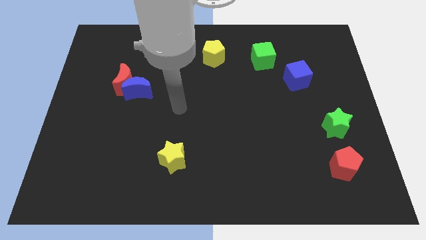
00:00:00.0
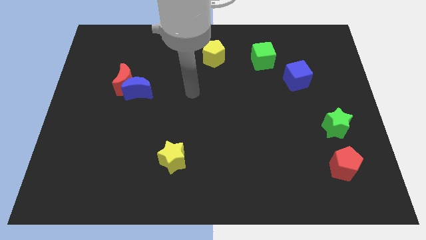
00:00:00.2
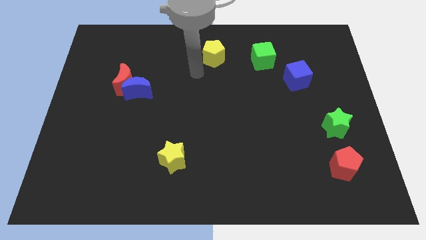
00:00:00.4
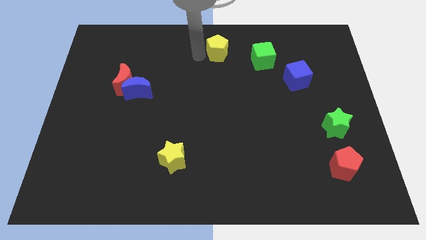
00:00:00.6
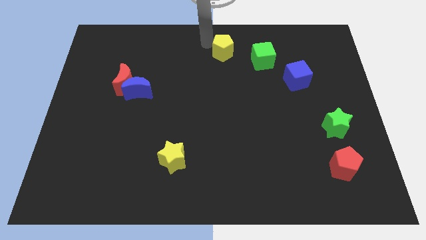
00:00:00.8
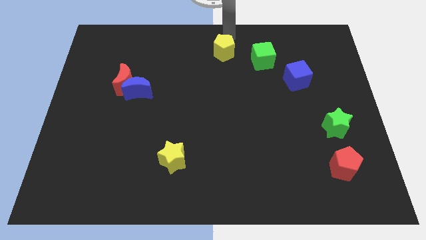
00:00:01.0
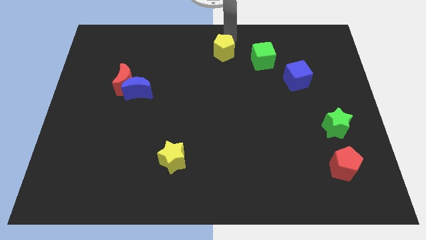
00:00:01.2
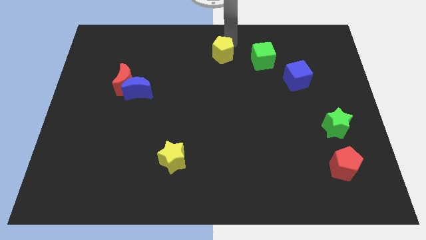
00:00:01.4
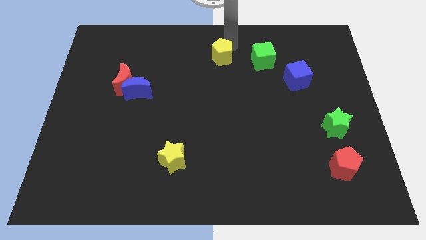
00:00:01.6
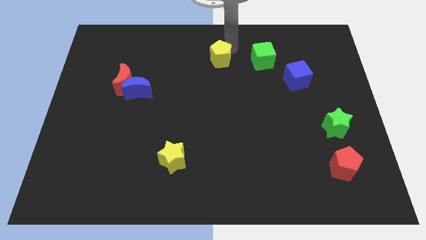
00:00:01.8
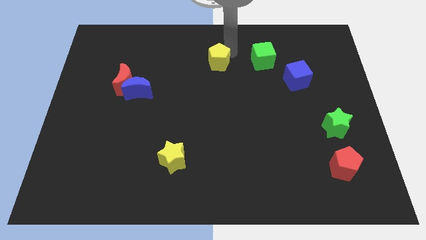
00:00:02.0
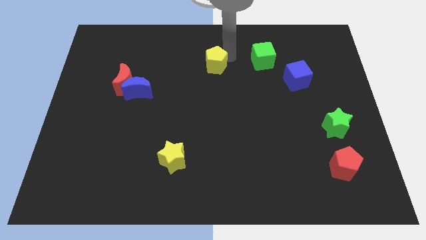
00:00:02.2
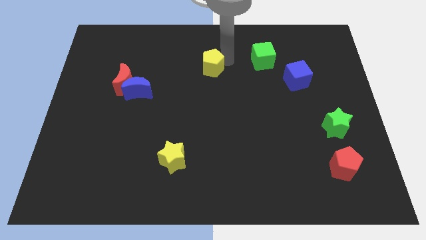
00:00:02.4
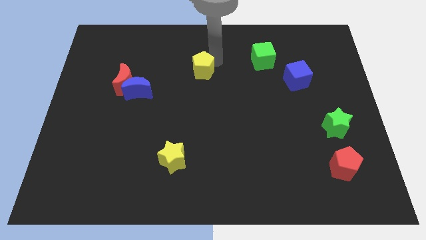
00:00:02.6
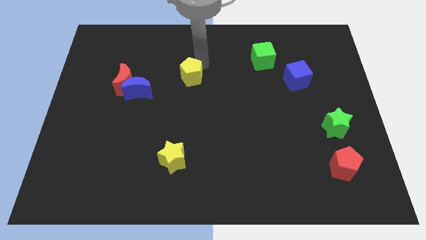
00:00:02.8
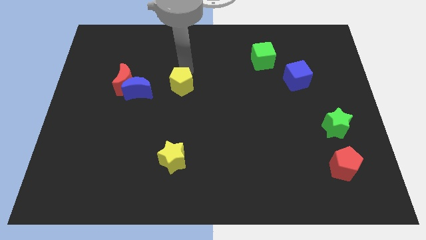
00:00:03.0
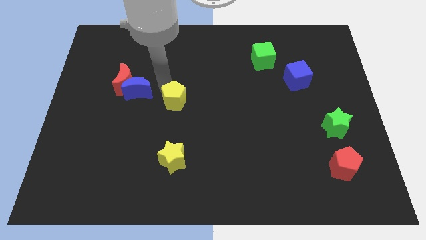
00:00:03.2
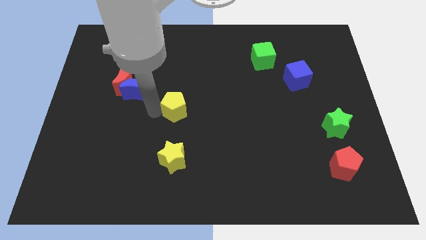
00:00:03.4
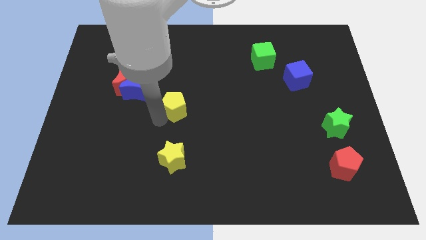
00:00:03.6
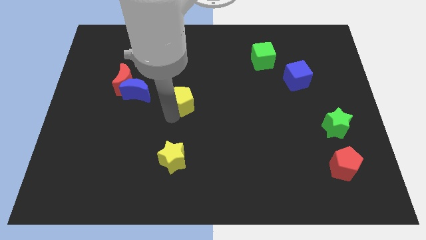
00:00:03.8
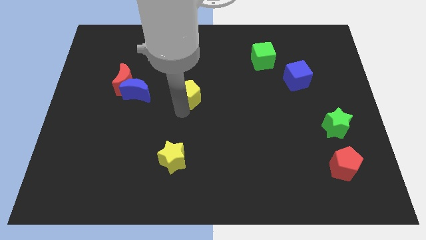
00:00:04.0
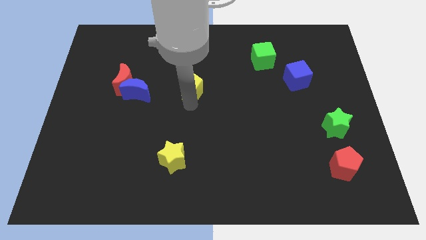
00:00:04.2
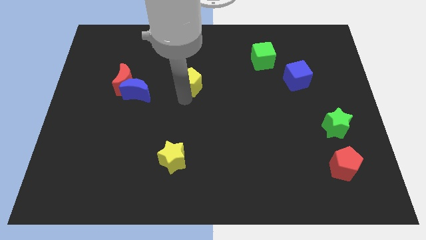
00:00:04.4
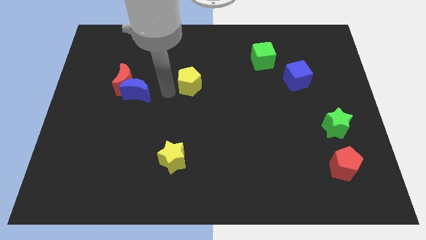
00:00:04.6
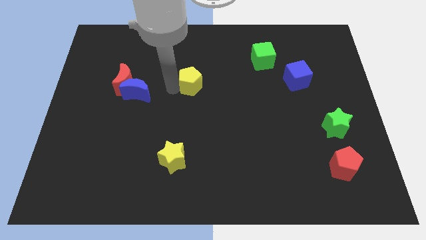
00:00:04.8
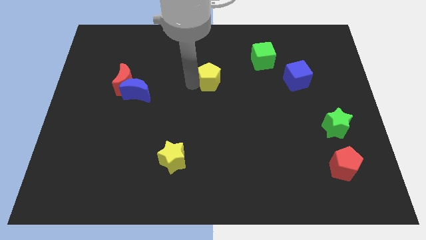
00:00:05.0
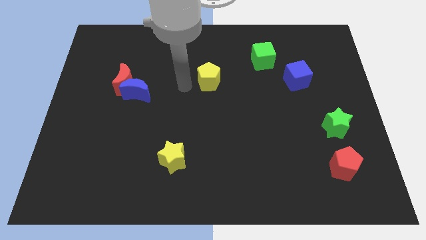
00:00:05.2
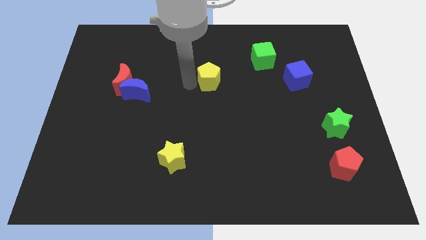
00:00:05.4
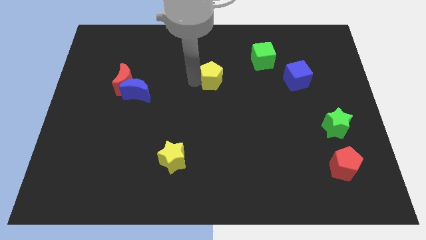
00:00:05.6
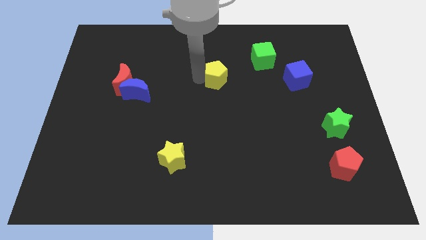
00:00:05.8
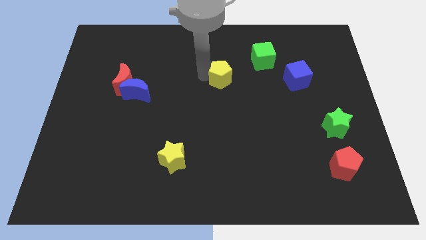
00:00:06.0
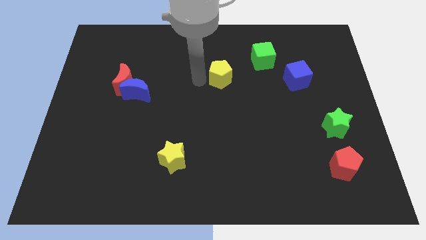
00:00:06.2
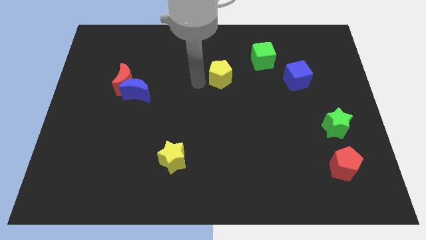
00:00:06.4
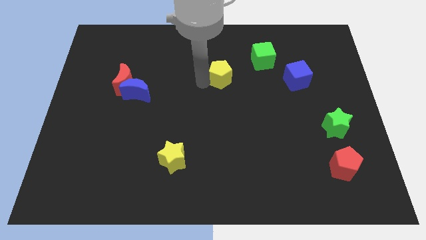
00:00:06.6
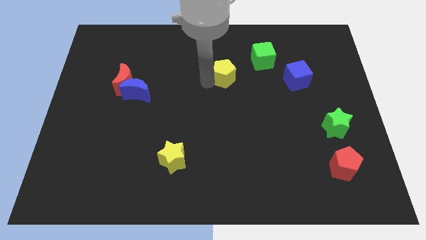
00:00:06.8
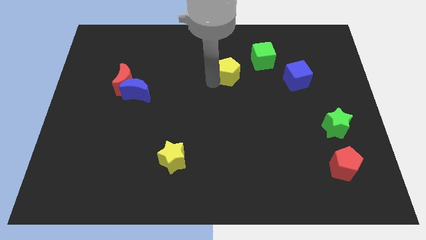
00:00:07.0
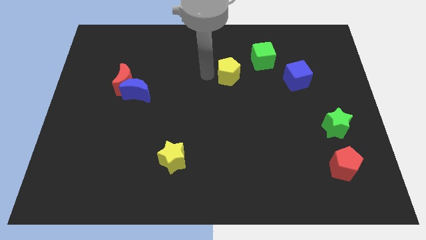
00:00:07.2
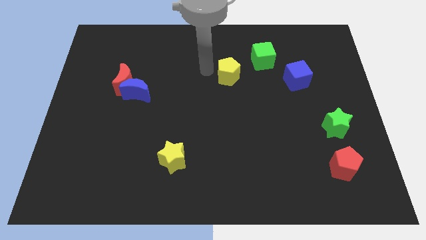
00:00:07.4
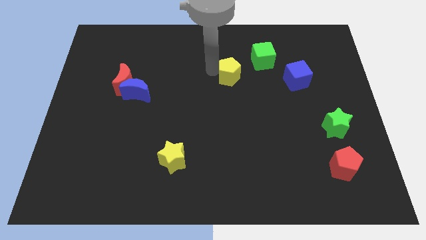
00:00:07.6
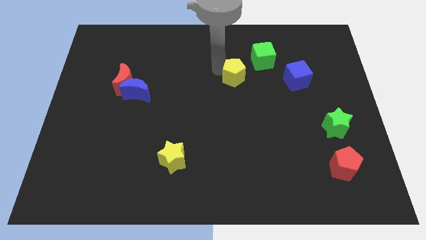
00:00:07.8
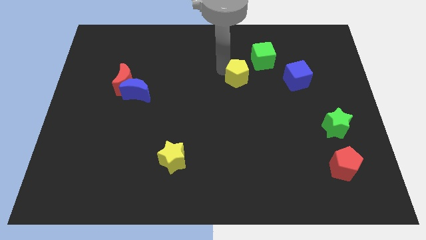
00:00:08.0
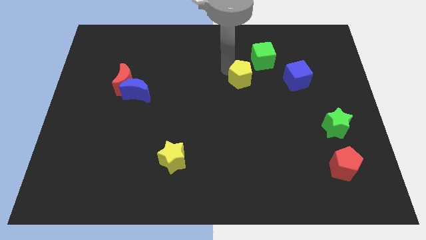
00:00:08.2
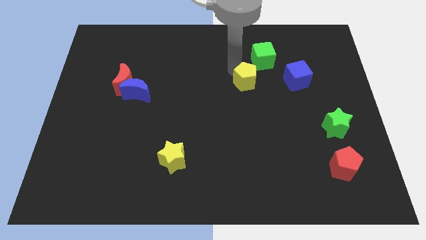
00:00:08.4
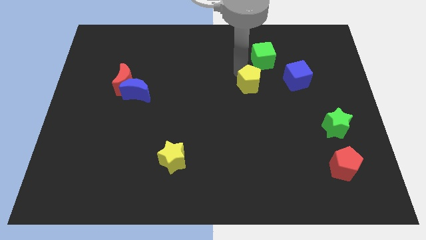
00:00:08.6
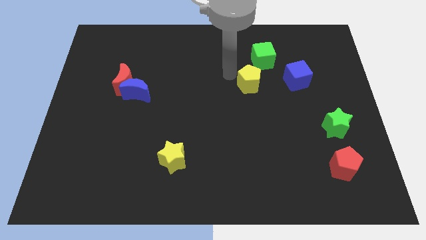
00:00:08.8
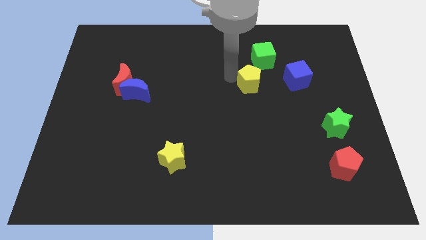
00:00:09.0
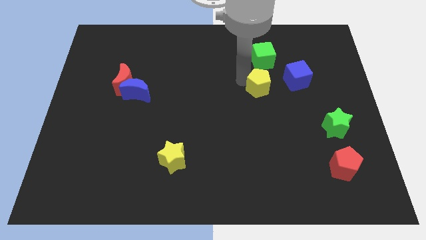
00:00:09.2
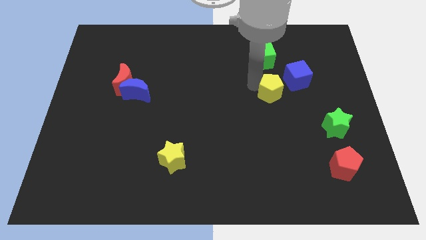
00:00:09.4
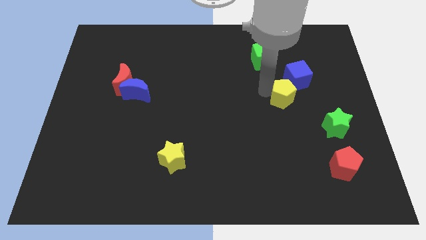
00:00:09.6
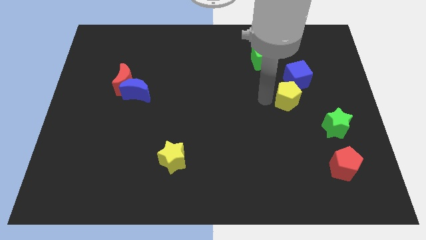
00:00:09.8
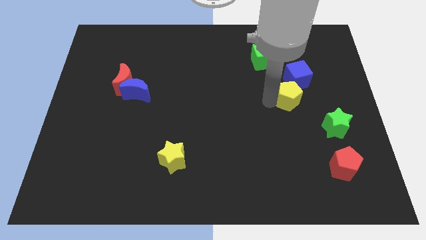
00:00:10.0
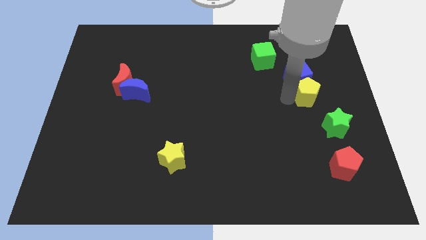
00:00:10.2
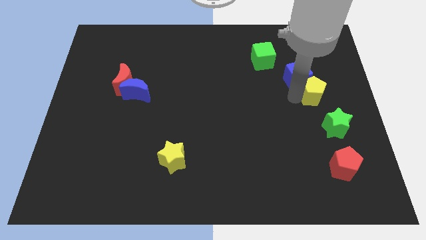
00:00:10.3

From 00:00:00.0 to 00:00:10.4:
put the yellow pentagon to the top of the green star

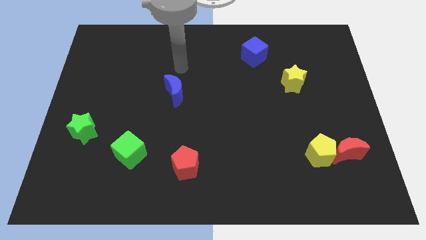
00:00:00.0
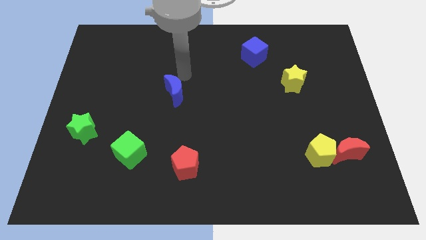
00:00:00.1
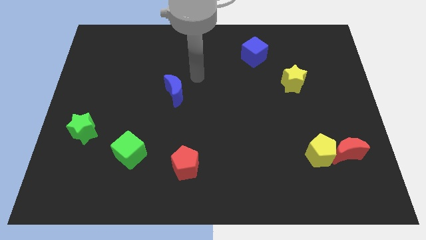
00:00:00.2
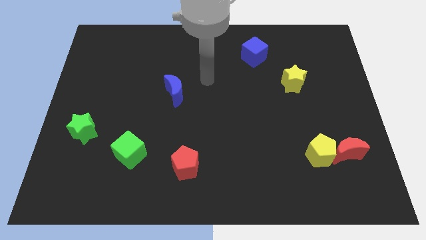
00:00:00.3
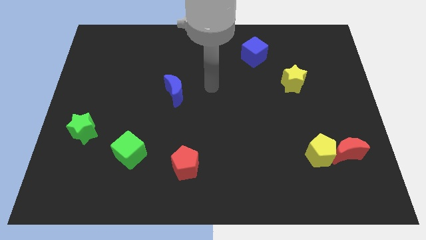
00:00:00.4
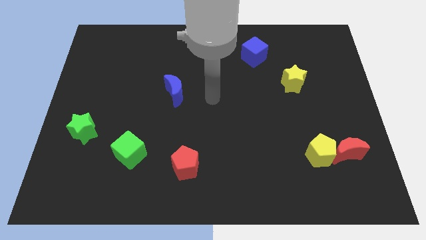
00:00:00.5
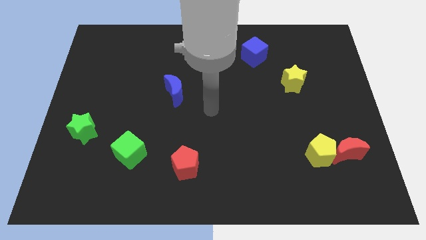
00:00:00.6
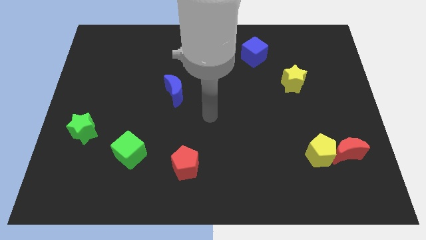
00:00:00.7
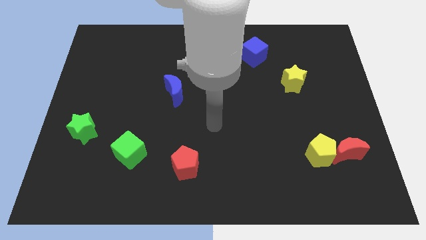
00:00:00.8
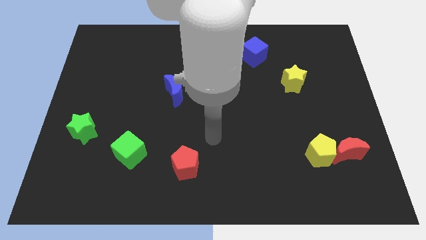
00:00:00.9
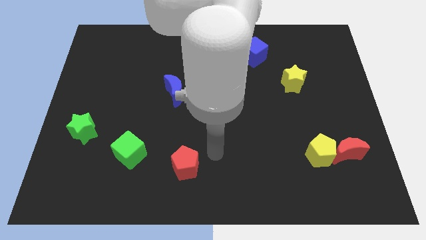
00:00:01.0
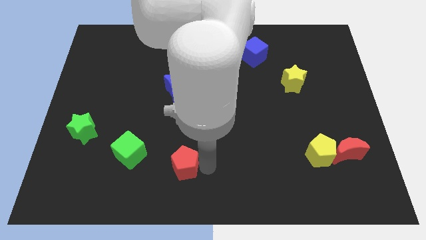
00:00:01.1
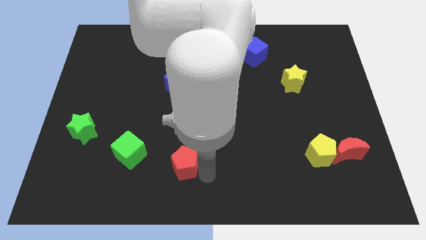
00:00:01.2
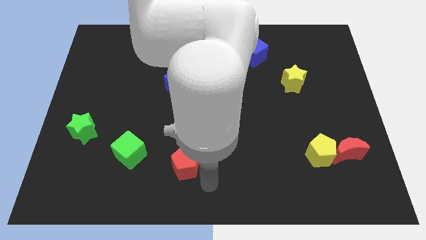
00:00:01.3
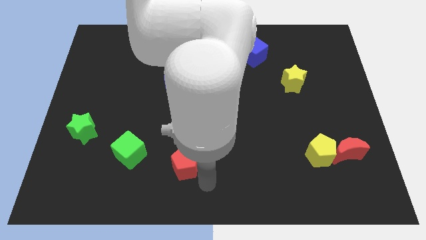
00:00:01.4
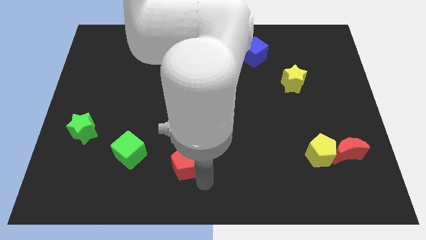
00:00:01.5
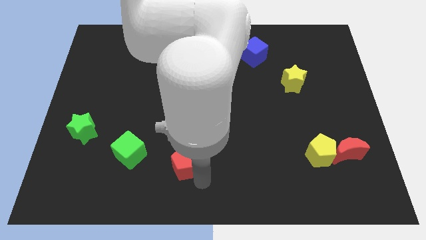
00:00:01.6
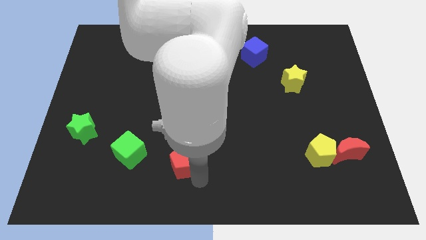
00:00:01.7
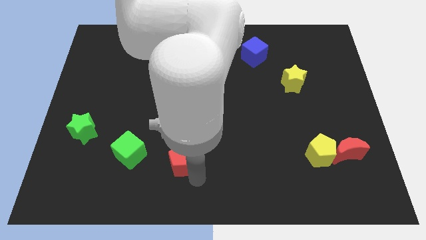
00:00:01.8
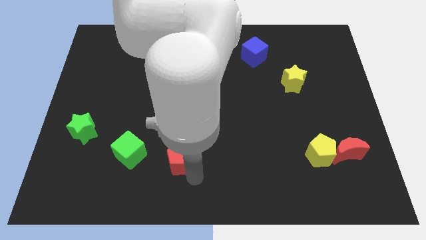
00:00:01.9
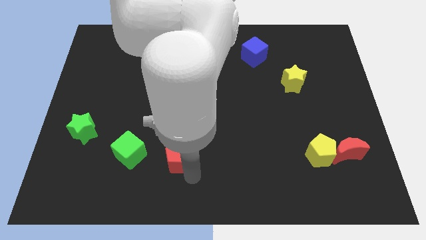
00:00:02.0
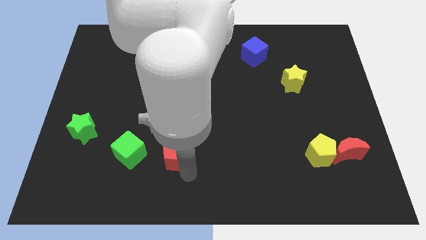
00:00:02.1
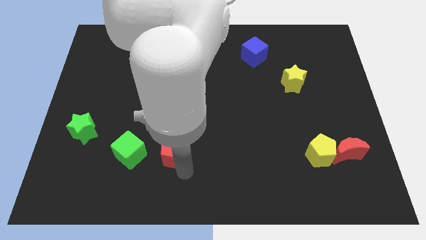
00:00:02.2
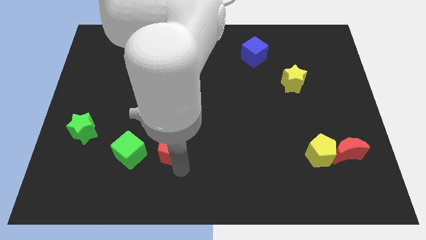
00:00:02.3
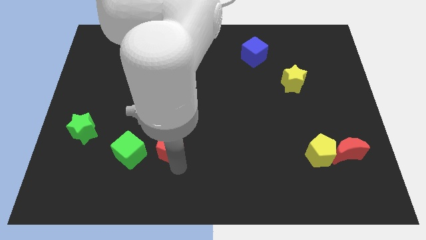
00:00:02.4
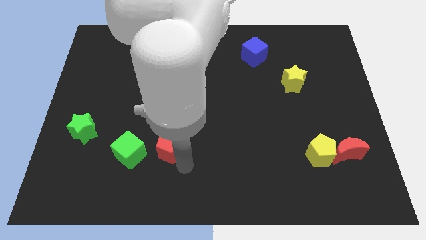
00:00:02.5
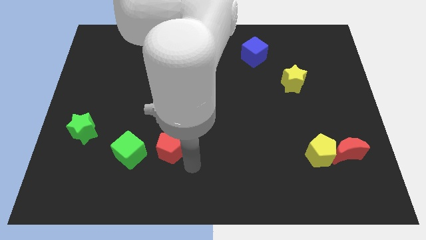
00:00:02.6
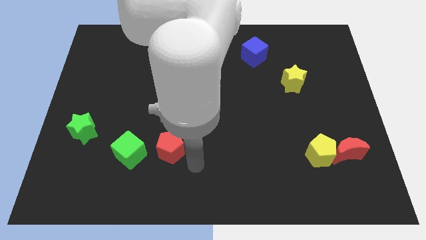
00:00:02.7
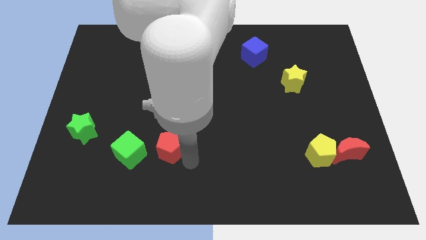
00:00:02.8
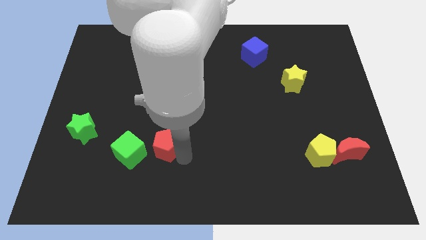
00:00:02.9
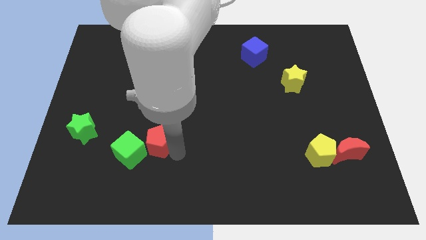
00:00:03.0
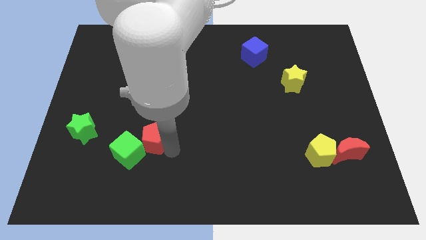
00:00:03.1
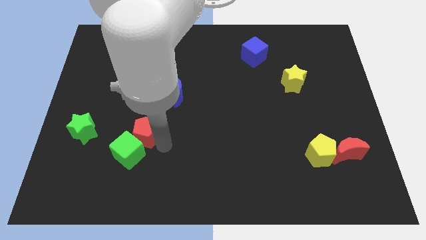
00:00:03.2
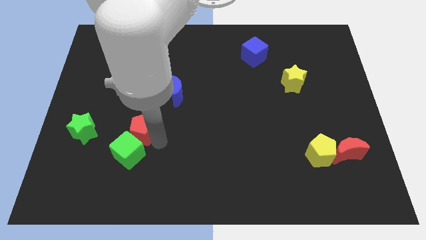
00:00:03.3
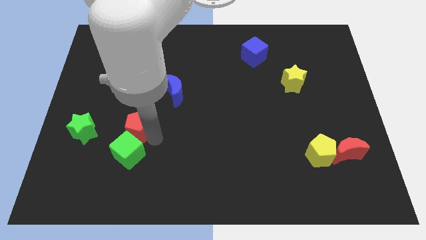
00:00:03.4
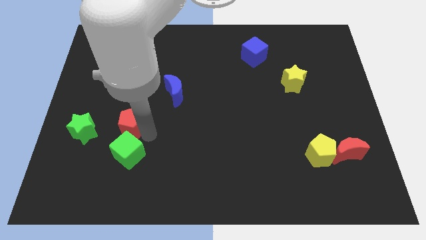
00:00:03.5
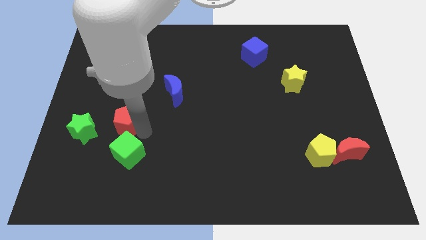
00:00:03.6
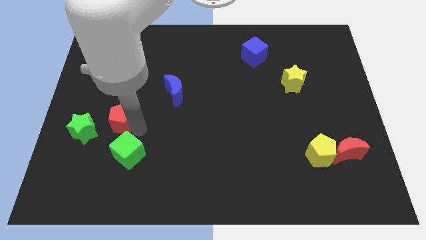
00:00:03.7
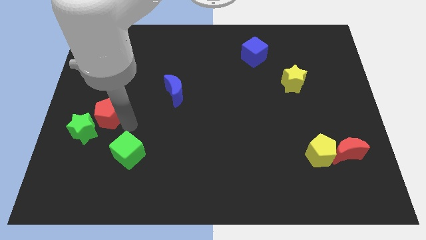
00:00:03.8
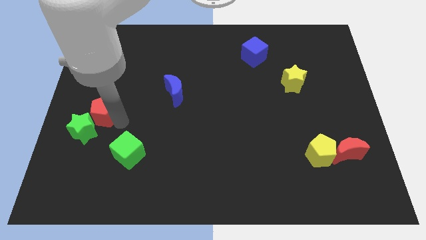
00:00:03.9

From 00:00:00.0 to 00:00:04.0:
move the red pentagon above the green star
